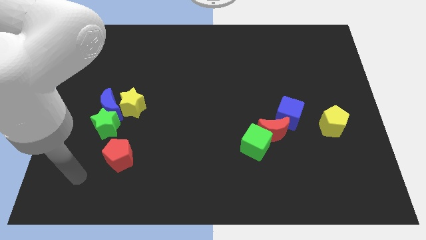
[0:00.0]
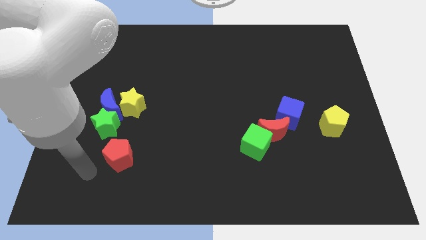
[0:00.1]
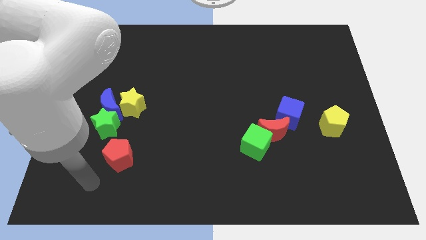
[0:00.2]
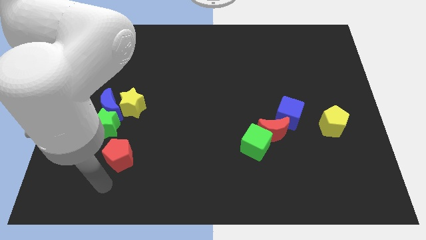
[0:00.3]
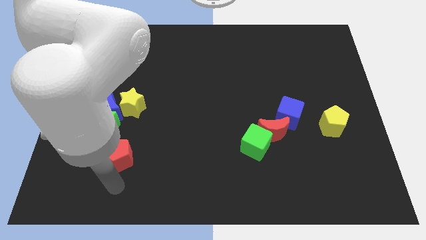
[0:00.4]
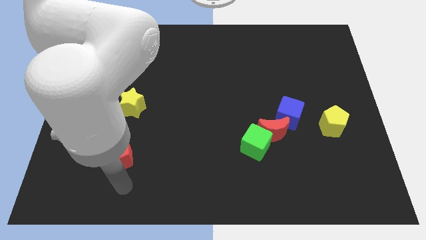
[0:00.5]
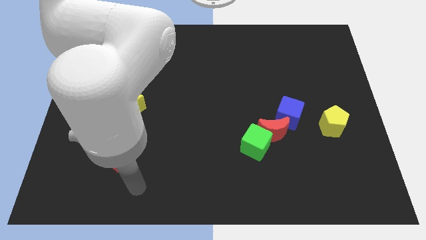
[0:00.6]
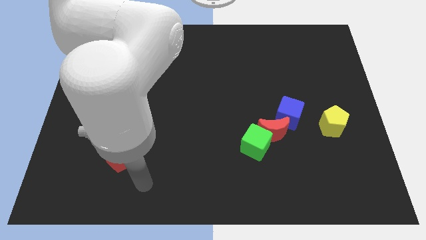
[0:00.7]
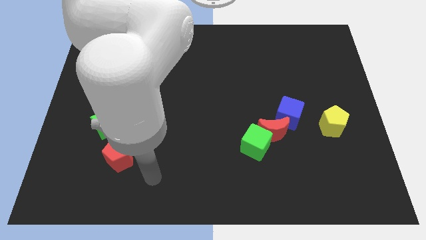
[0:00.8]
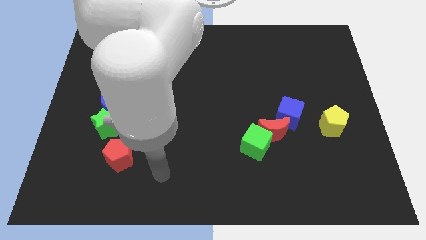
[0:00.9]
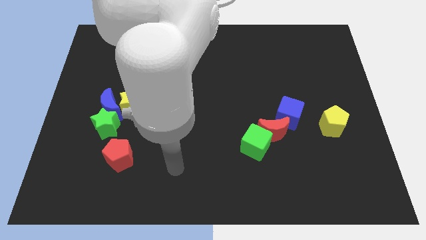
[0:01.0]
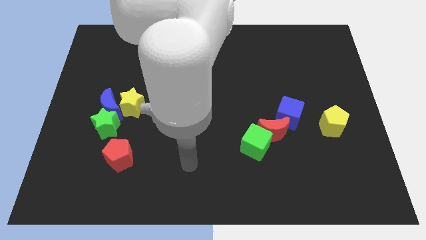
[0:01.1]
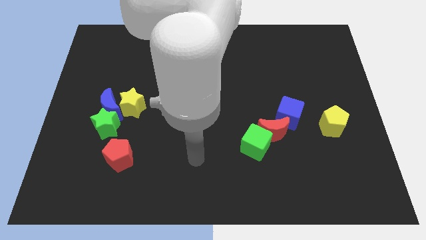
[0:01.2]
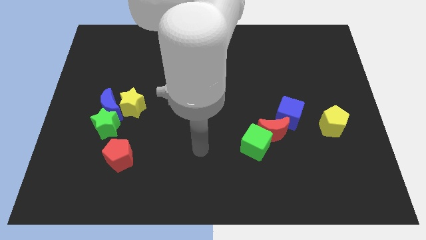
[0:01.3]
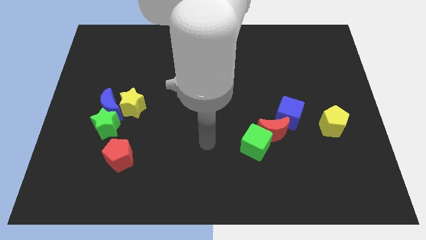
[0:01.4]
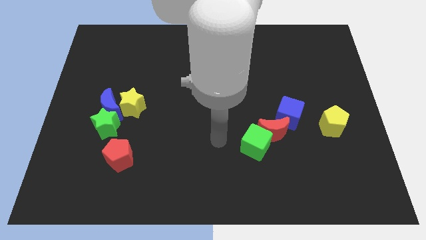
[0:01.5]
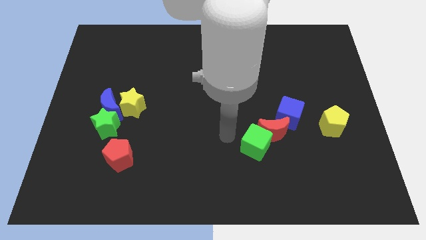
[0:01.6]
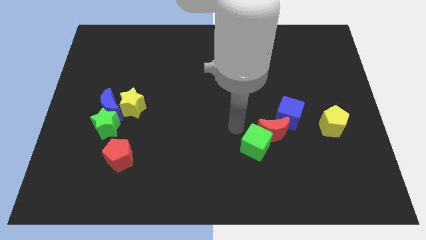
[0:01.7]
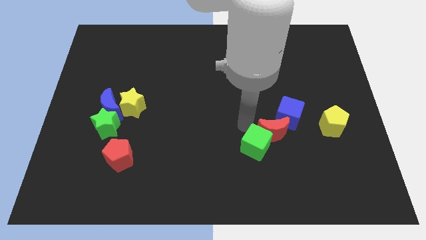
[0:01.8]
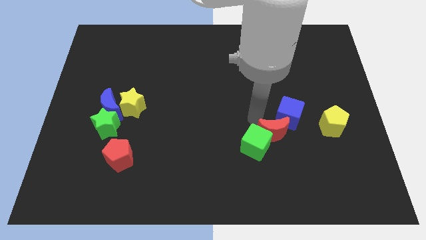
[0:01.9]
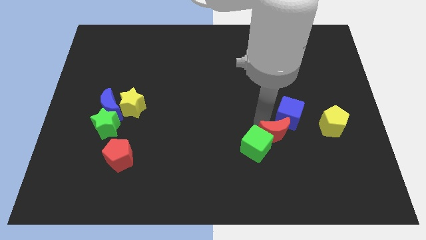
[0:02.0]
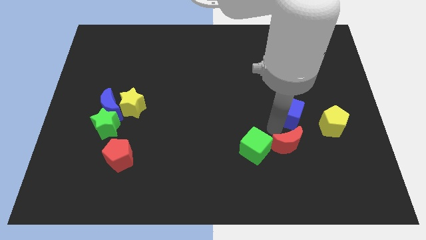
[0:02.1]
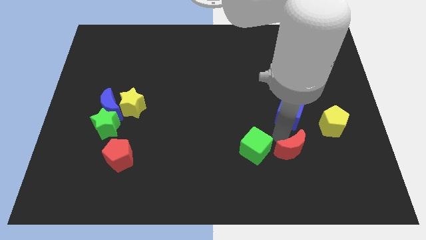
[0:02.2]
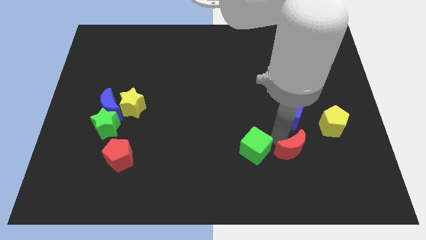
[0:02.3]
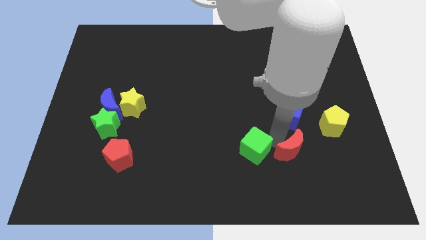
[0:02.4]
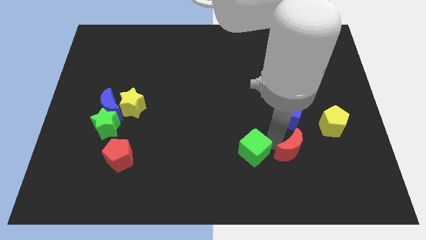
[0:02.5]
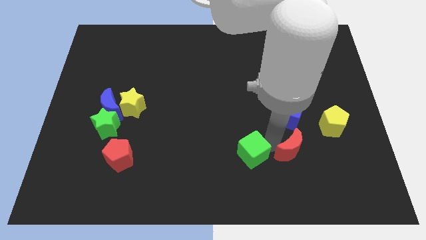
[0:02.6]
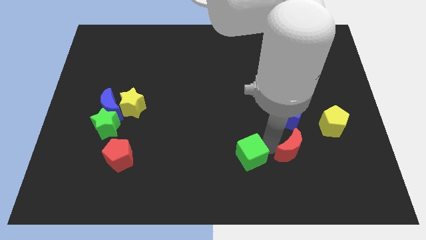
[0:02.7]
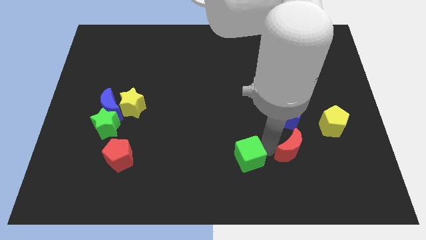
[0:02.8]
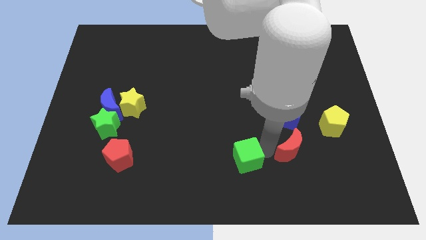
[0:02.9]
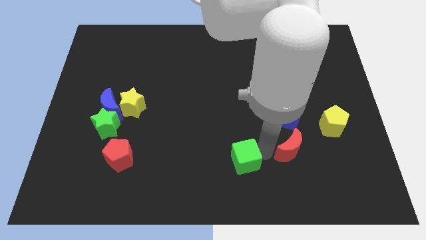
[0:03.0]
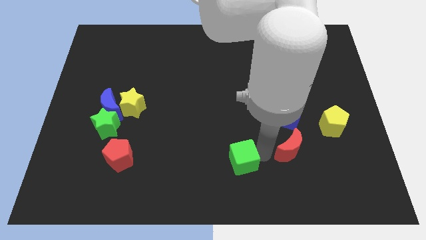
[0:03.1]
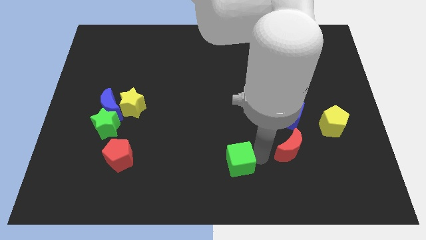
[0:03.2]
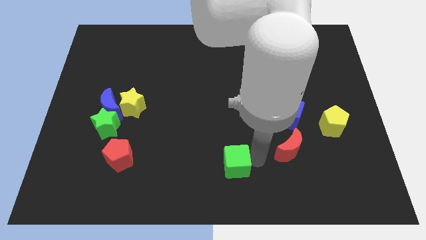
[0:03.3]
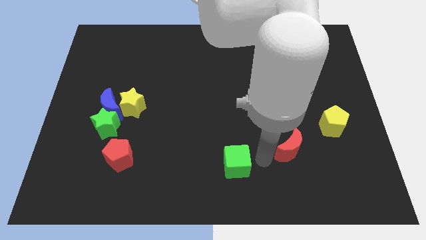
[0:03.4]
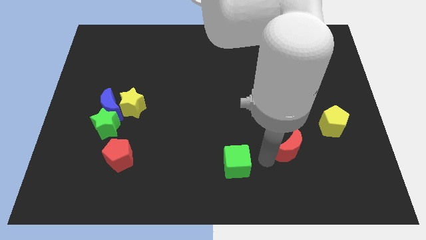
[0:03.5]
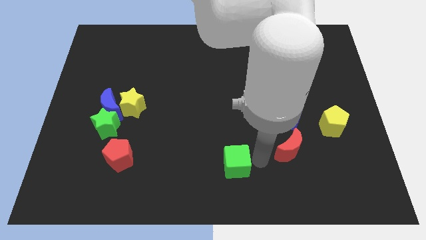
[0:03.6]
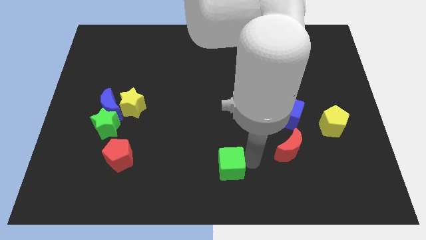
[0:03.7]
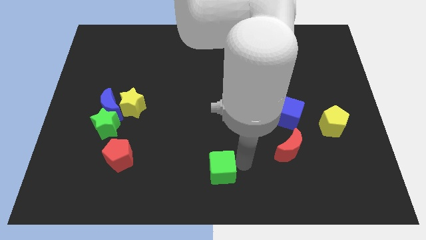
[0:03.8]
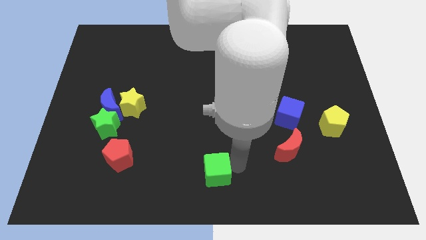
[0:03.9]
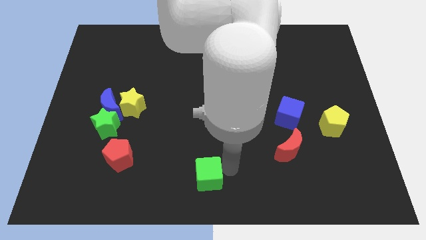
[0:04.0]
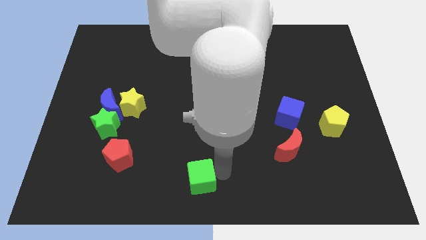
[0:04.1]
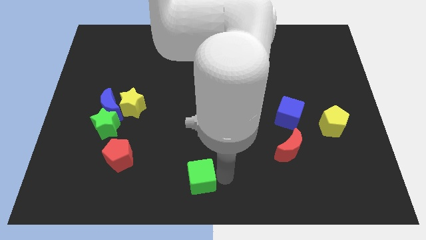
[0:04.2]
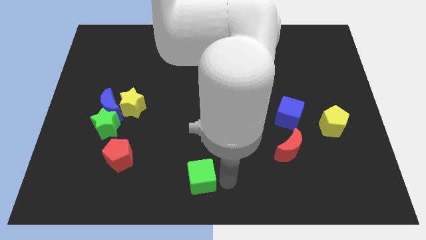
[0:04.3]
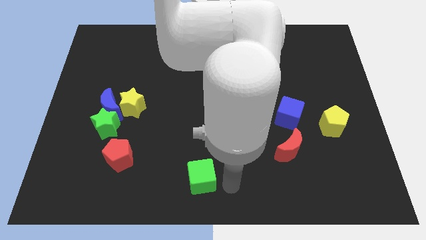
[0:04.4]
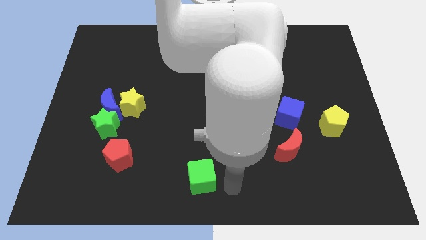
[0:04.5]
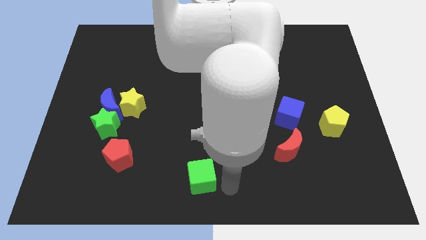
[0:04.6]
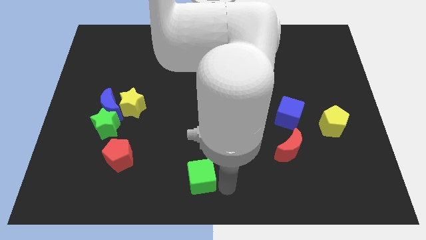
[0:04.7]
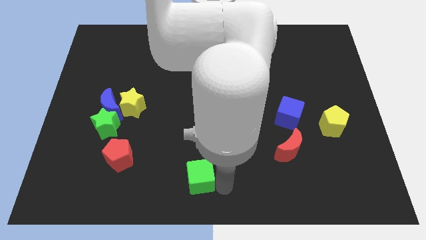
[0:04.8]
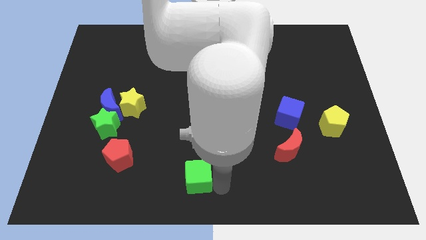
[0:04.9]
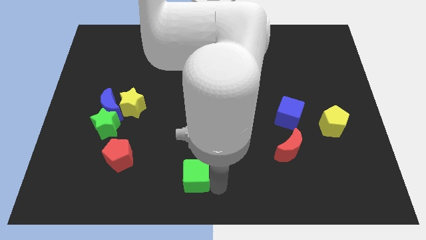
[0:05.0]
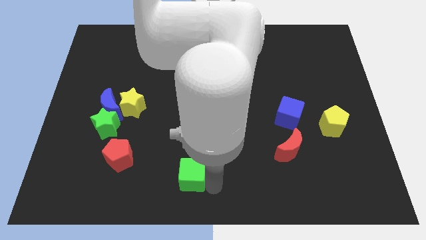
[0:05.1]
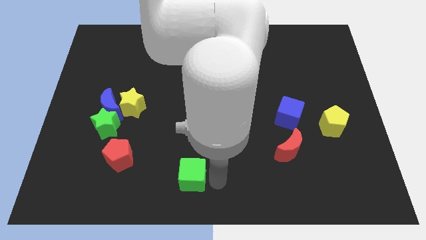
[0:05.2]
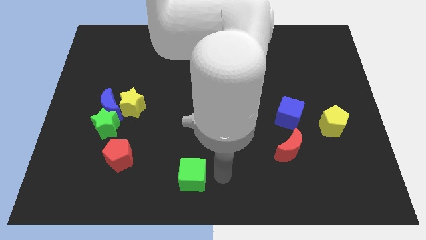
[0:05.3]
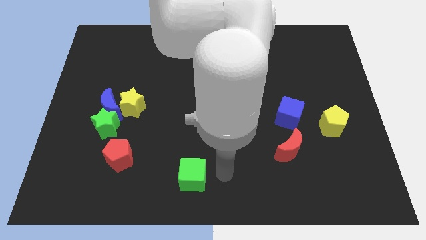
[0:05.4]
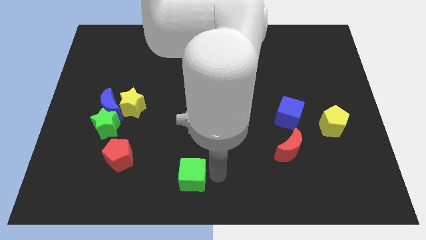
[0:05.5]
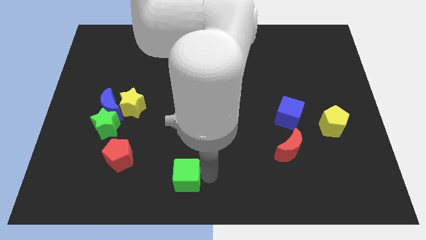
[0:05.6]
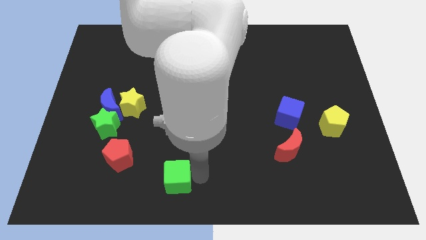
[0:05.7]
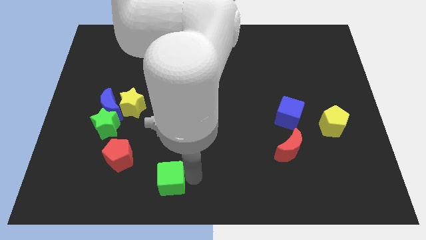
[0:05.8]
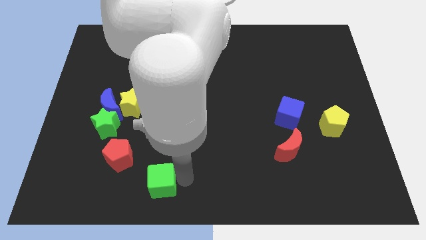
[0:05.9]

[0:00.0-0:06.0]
slide the green cube to the bottom right side of the red pentagon

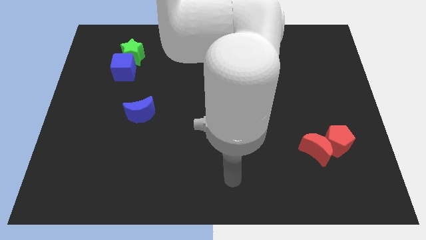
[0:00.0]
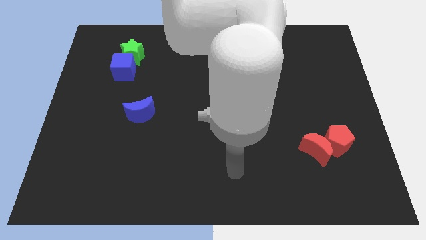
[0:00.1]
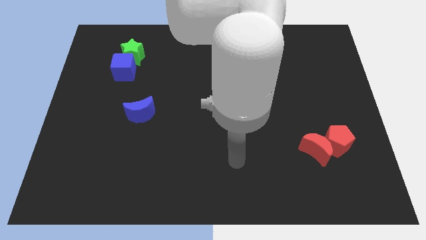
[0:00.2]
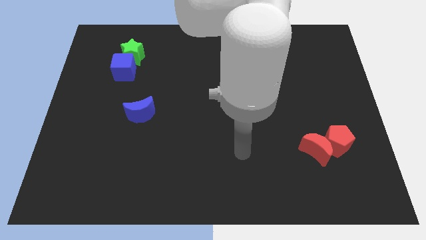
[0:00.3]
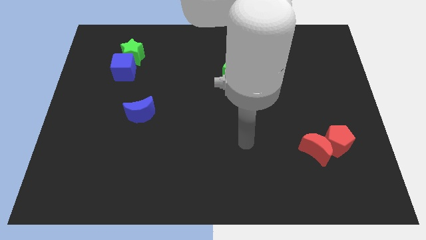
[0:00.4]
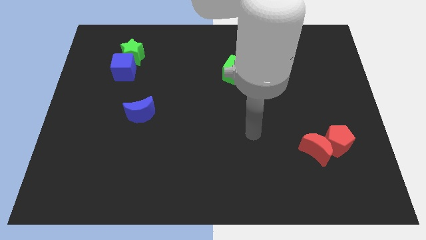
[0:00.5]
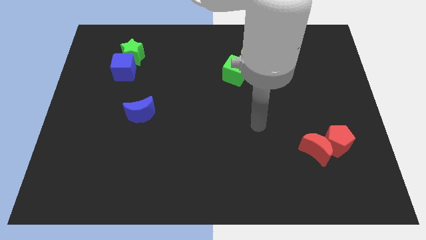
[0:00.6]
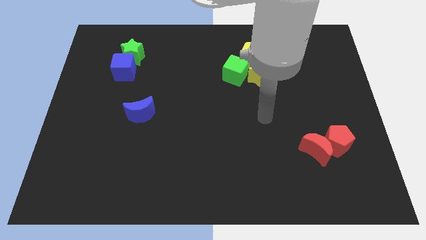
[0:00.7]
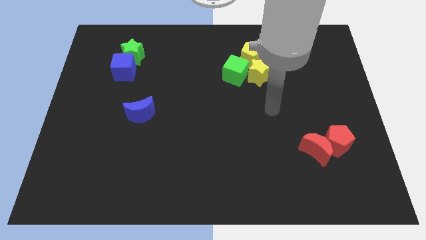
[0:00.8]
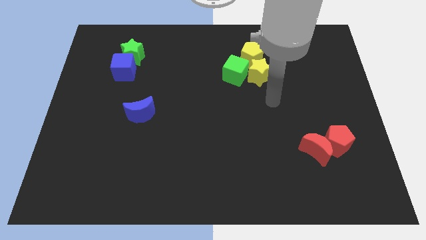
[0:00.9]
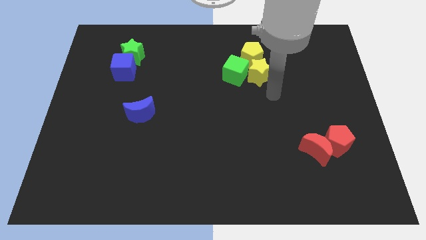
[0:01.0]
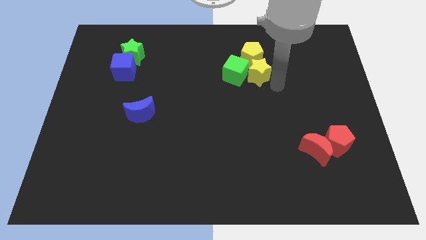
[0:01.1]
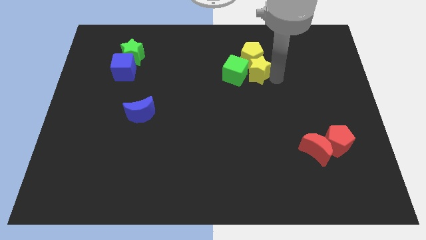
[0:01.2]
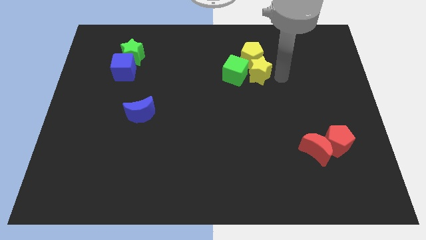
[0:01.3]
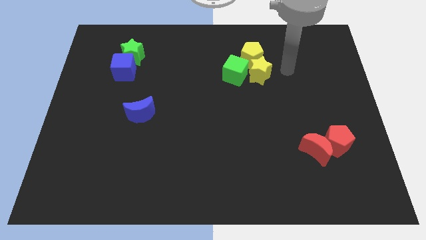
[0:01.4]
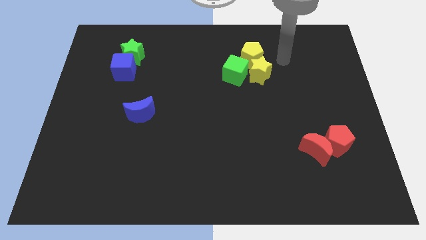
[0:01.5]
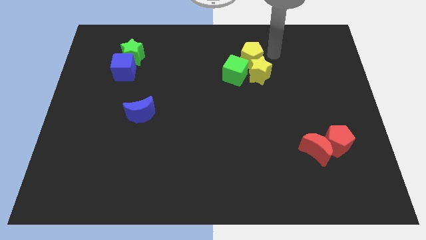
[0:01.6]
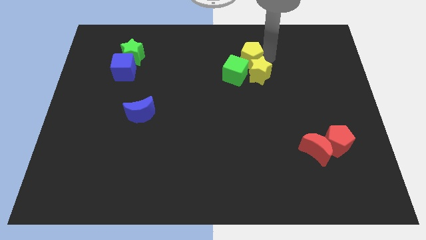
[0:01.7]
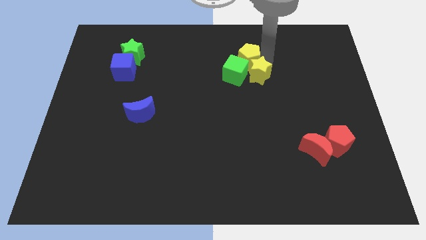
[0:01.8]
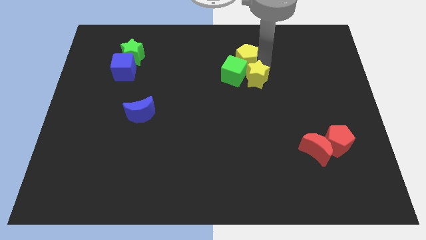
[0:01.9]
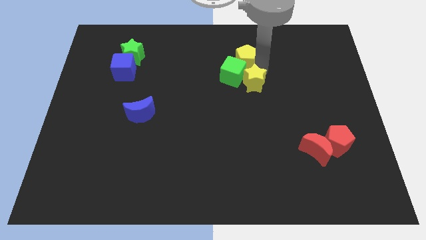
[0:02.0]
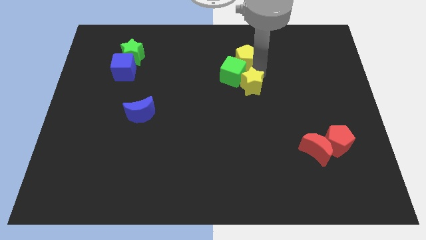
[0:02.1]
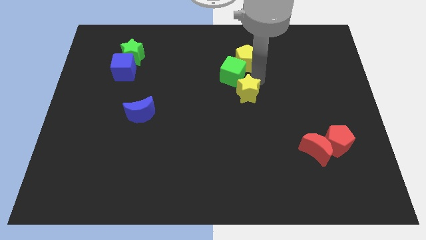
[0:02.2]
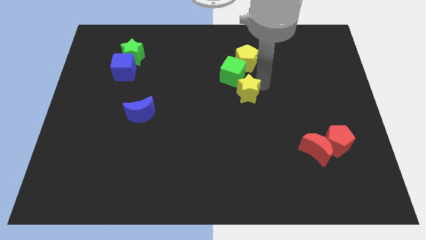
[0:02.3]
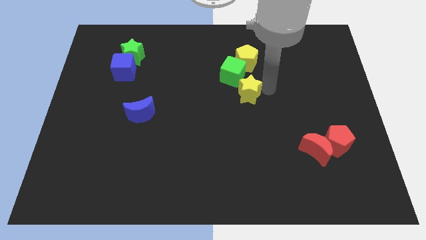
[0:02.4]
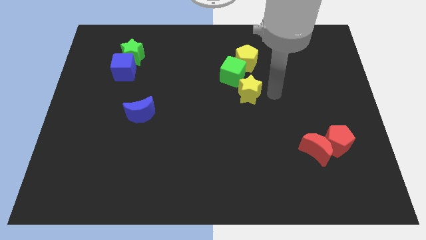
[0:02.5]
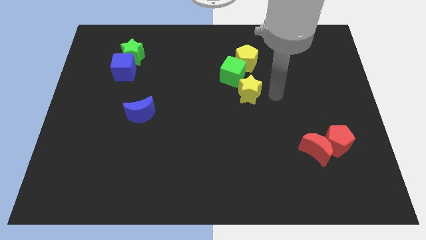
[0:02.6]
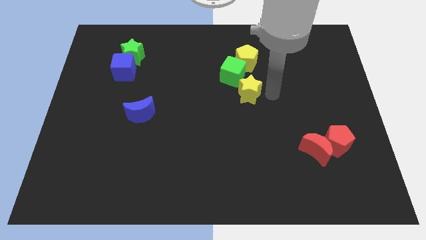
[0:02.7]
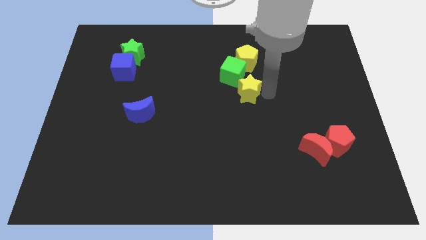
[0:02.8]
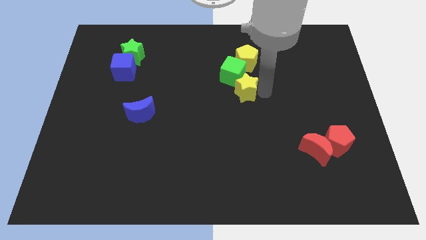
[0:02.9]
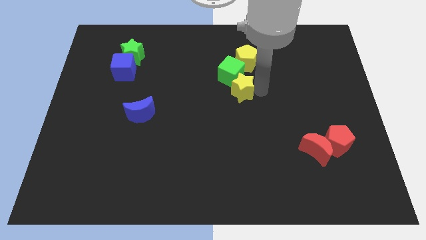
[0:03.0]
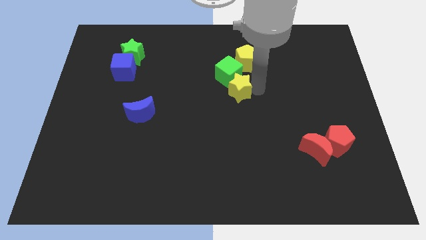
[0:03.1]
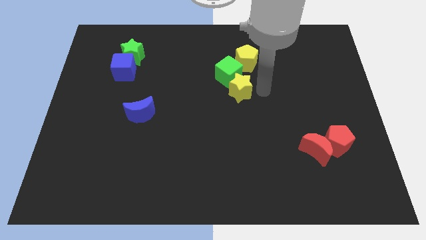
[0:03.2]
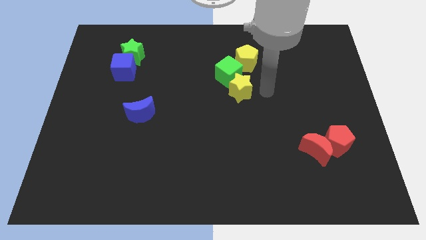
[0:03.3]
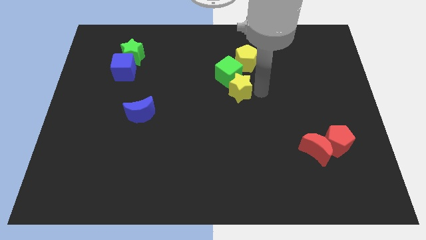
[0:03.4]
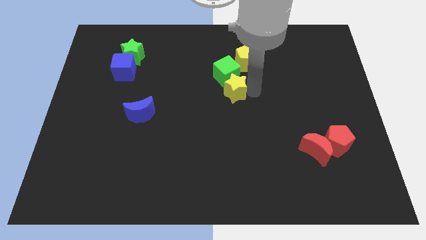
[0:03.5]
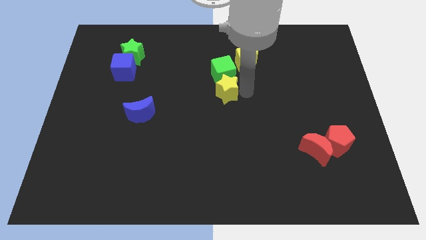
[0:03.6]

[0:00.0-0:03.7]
put the yellow star to the bottom left of the green cube
